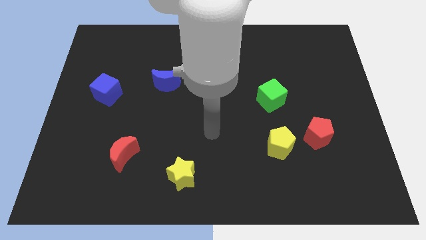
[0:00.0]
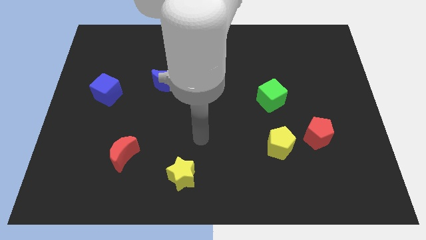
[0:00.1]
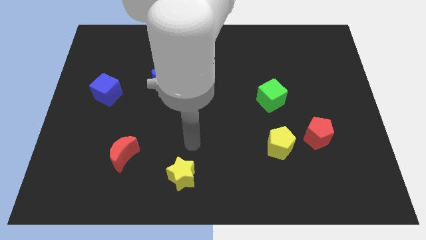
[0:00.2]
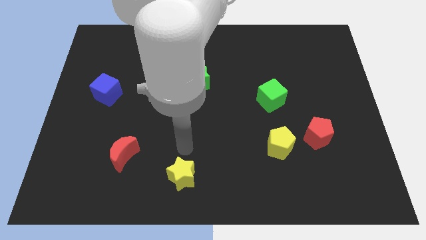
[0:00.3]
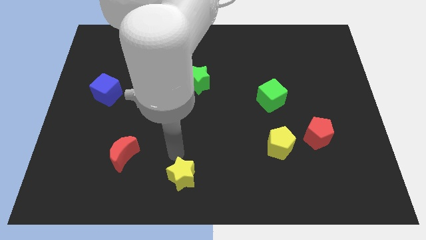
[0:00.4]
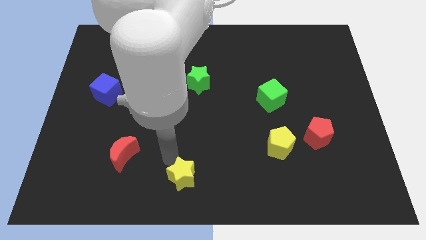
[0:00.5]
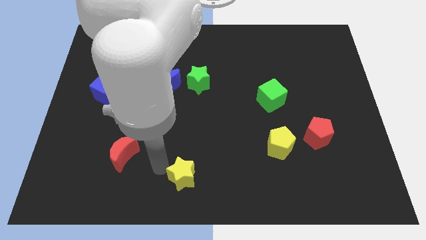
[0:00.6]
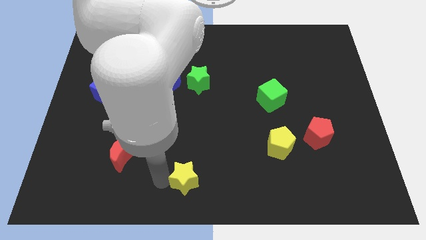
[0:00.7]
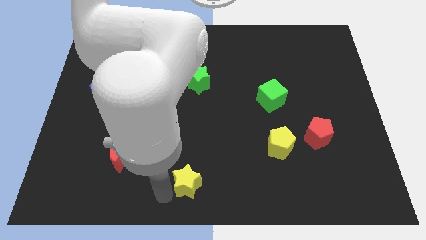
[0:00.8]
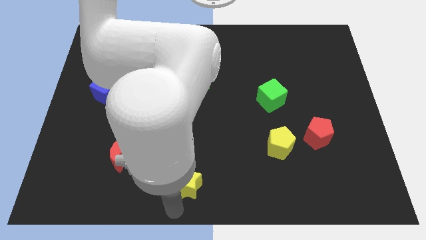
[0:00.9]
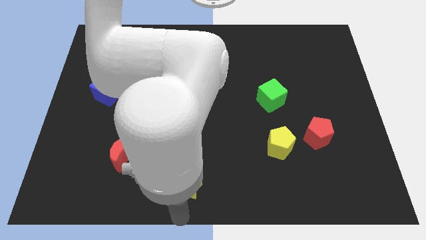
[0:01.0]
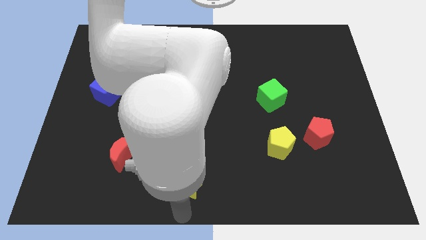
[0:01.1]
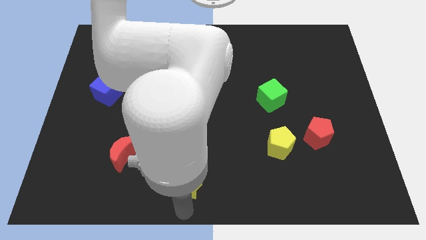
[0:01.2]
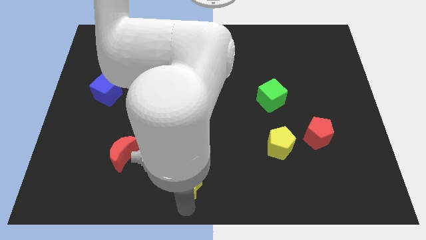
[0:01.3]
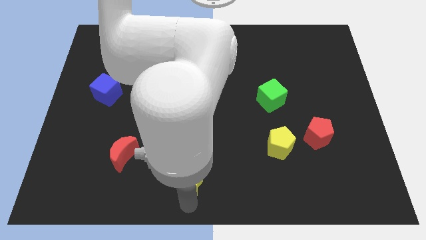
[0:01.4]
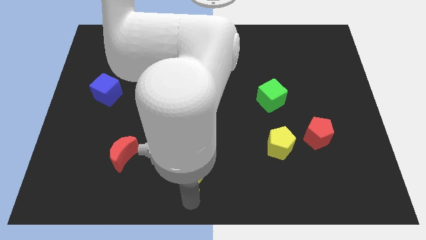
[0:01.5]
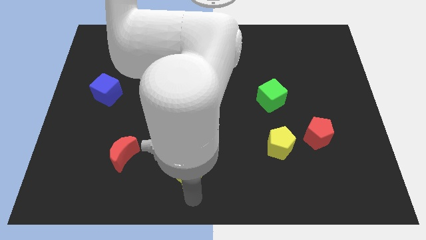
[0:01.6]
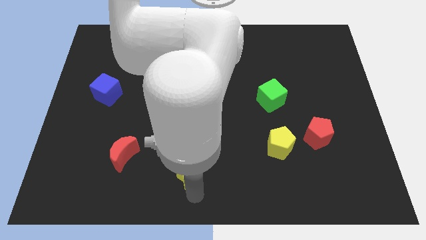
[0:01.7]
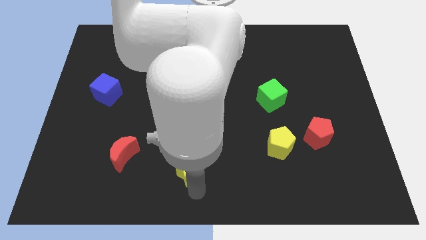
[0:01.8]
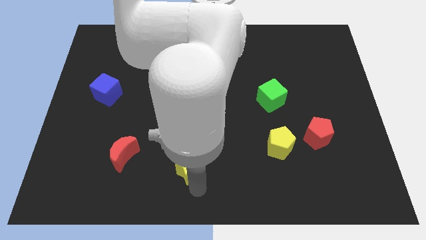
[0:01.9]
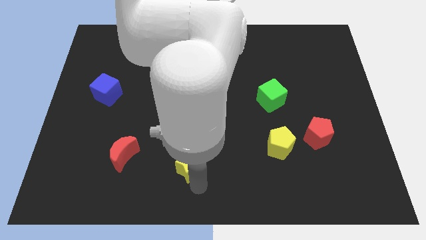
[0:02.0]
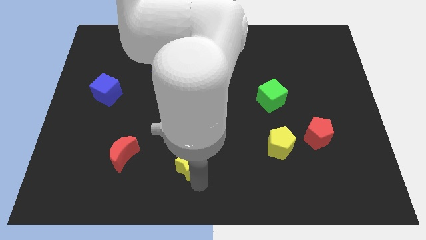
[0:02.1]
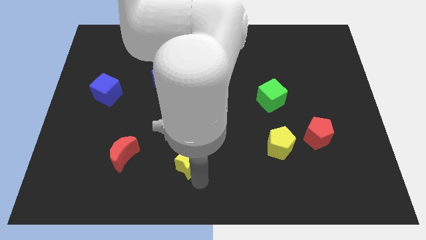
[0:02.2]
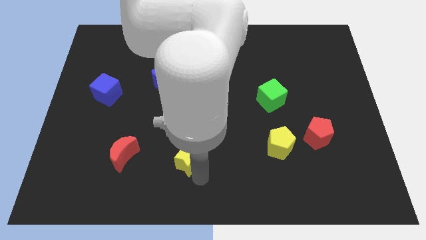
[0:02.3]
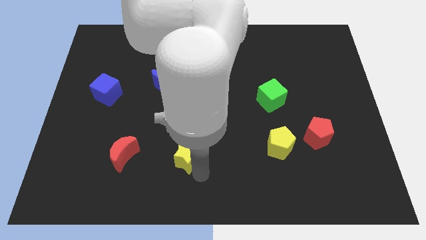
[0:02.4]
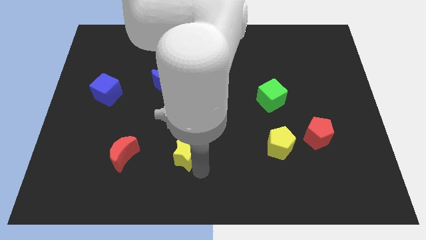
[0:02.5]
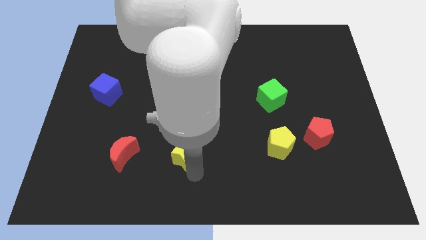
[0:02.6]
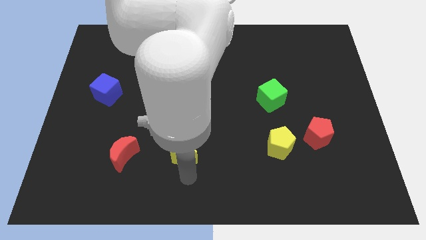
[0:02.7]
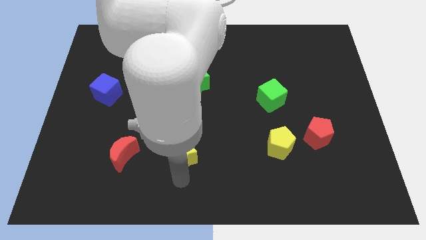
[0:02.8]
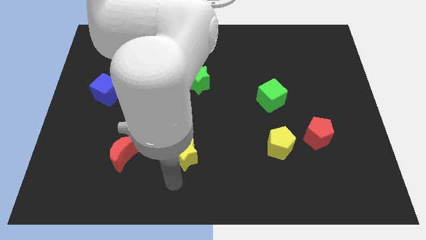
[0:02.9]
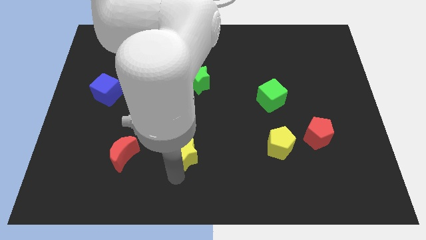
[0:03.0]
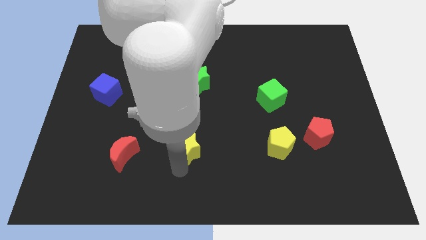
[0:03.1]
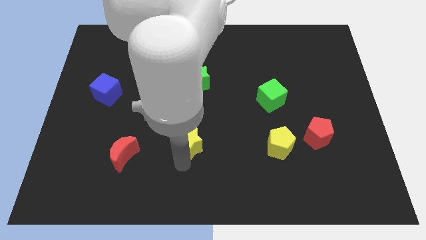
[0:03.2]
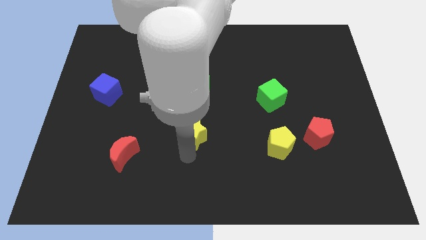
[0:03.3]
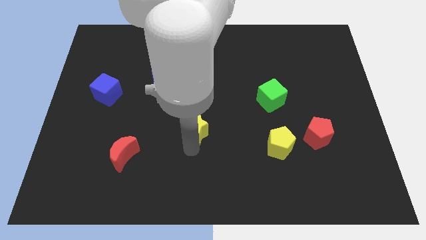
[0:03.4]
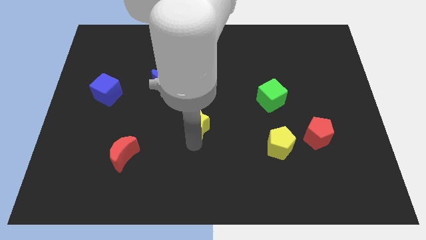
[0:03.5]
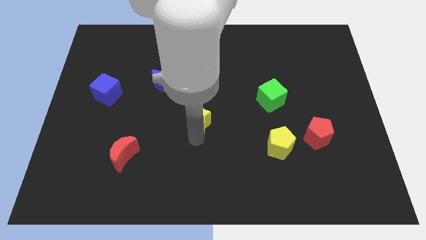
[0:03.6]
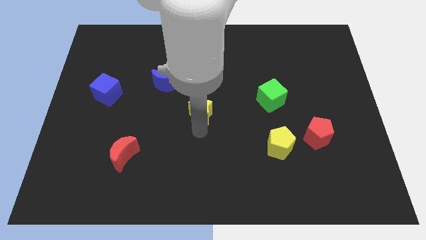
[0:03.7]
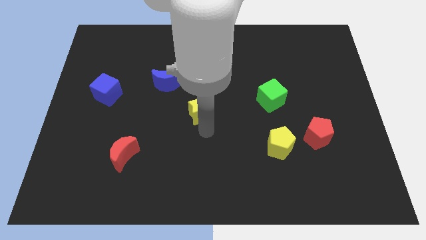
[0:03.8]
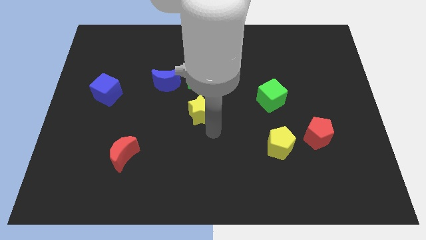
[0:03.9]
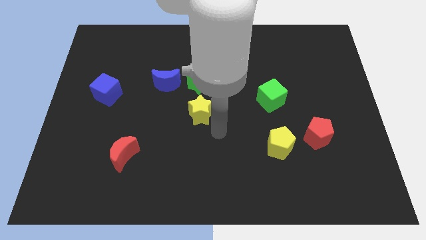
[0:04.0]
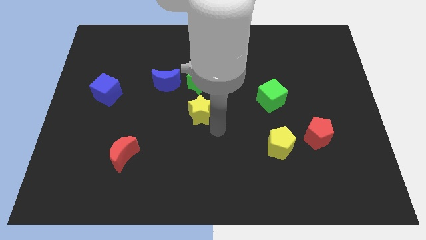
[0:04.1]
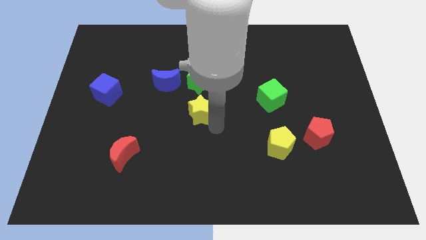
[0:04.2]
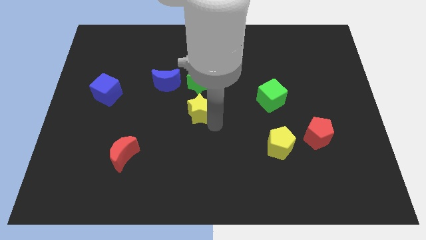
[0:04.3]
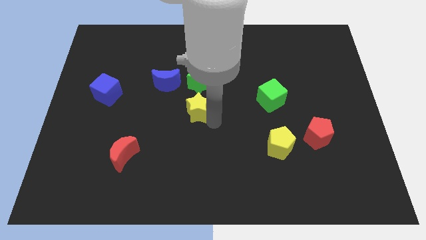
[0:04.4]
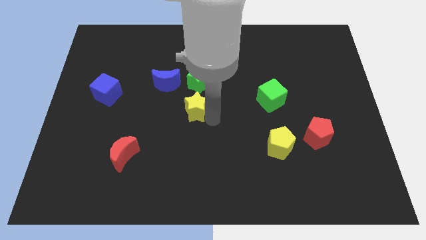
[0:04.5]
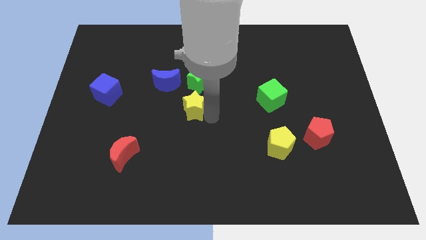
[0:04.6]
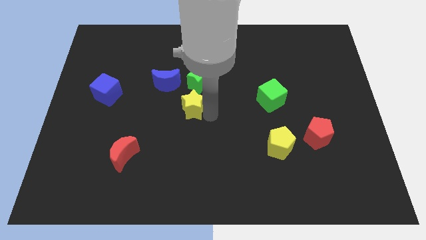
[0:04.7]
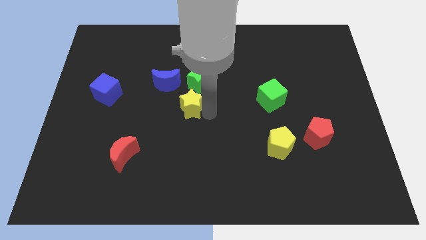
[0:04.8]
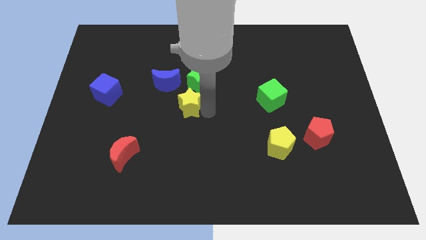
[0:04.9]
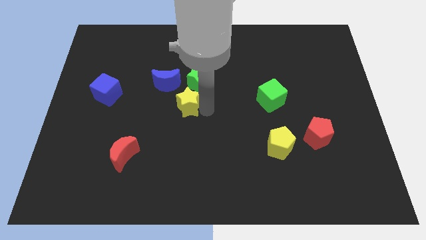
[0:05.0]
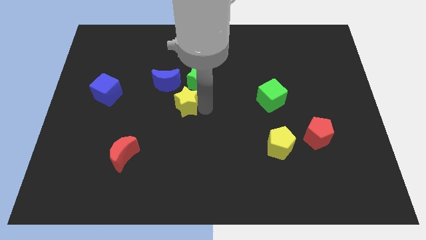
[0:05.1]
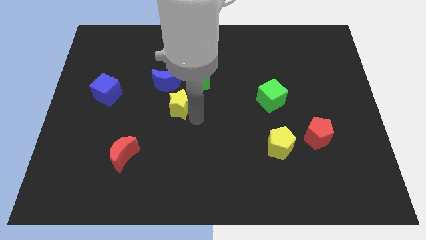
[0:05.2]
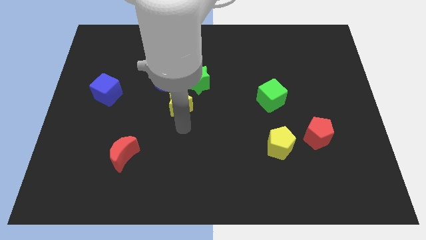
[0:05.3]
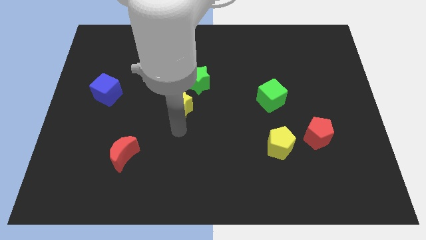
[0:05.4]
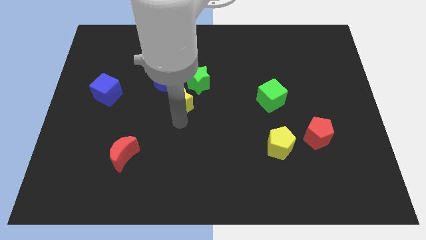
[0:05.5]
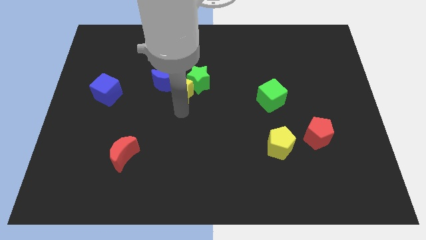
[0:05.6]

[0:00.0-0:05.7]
slide the yellow star upwards

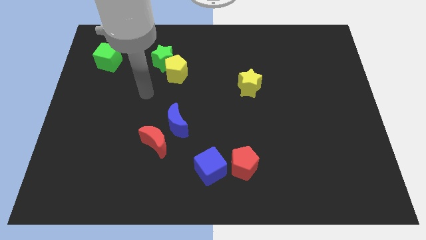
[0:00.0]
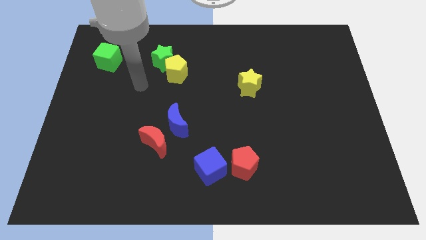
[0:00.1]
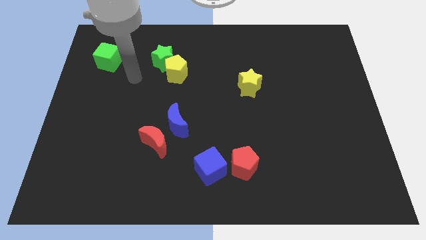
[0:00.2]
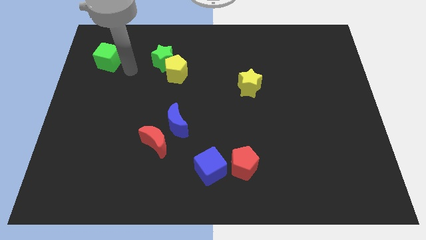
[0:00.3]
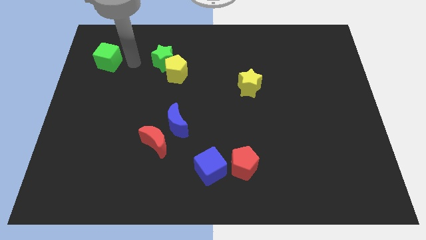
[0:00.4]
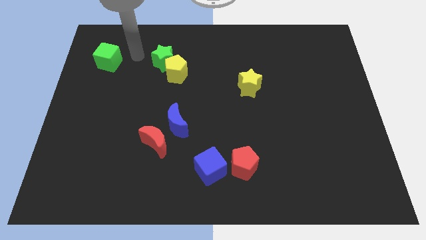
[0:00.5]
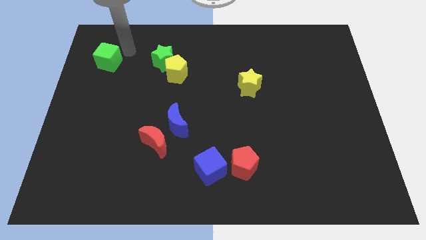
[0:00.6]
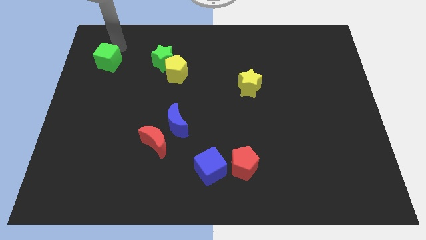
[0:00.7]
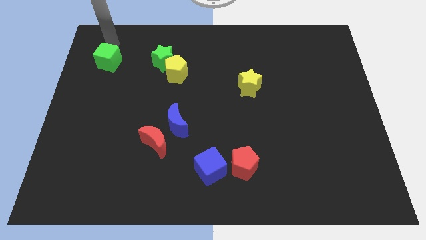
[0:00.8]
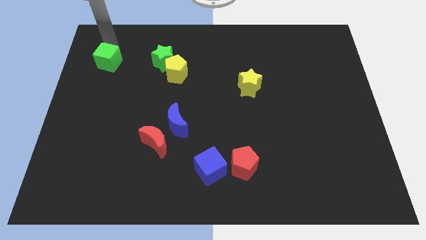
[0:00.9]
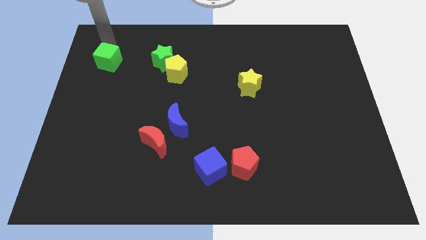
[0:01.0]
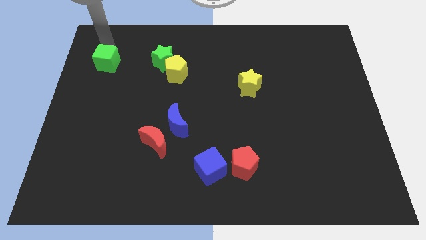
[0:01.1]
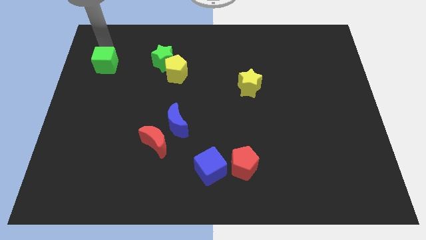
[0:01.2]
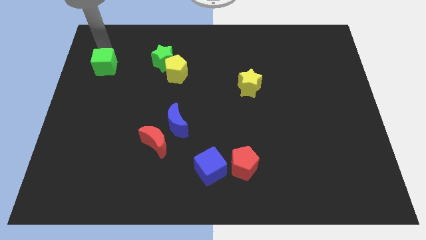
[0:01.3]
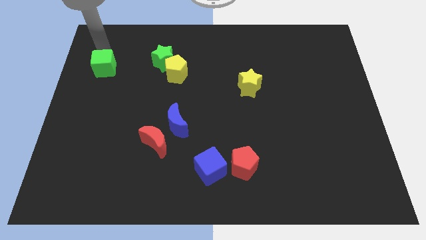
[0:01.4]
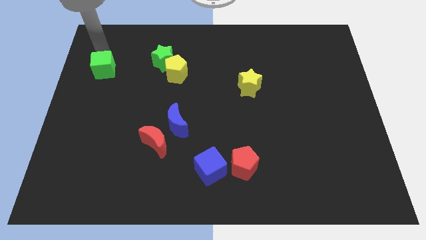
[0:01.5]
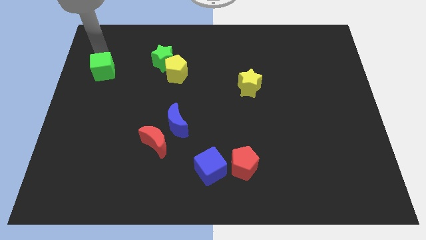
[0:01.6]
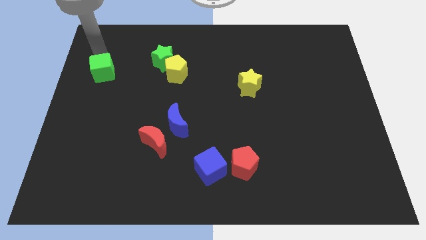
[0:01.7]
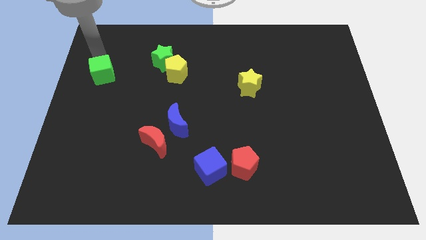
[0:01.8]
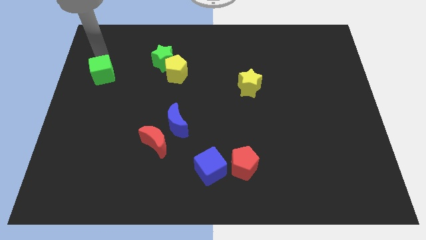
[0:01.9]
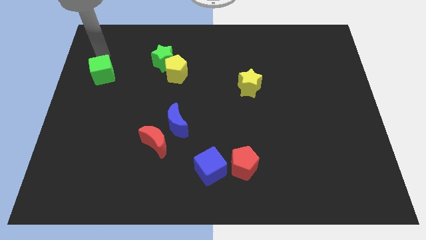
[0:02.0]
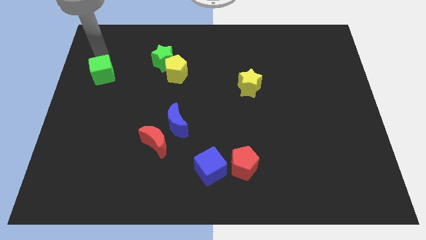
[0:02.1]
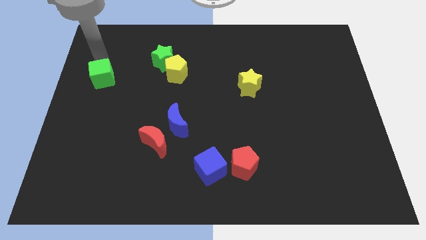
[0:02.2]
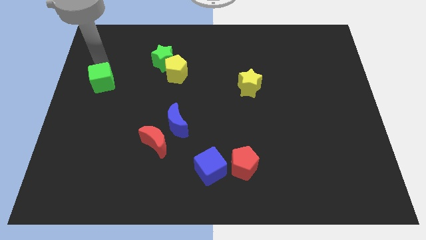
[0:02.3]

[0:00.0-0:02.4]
slightly move the green cube downwards
